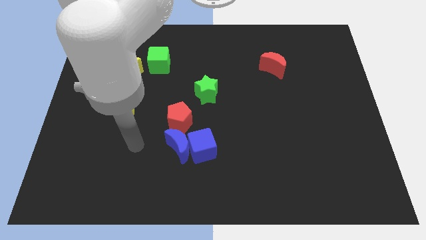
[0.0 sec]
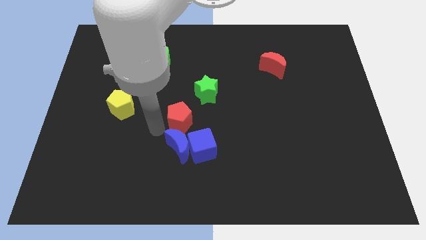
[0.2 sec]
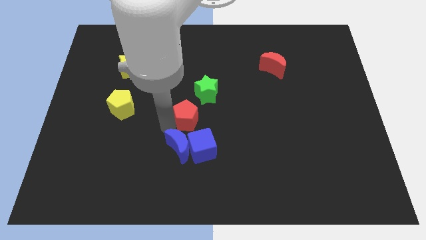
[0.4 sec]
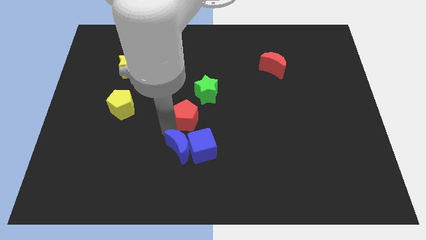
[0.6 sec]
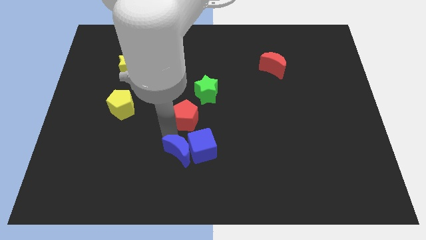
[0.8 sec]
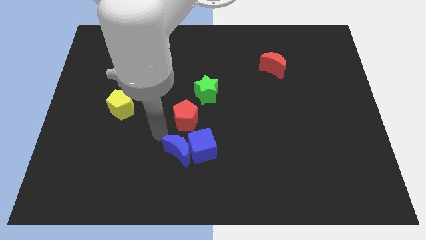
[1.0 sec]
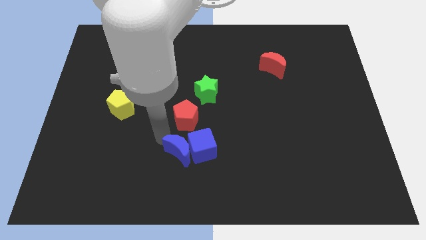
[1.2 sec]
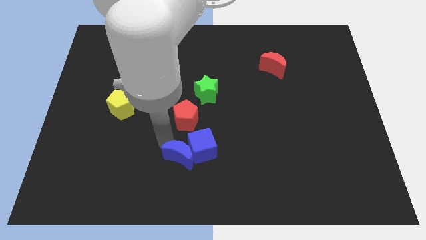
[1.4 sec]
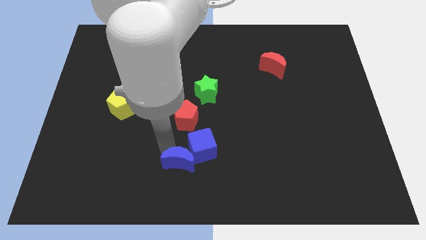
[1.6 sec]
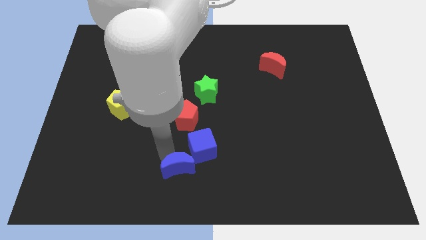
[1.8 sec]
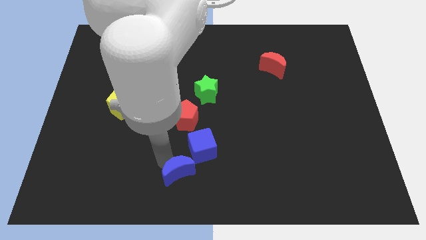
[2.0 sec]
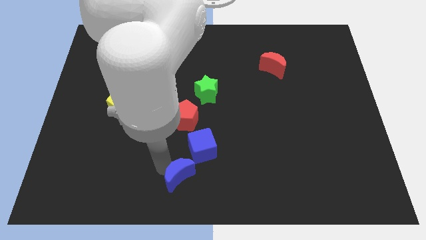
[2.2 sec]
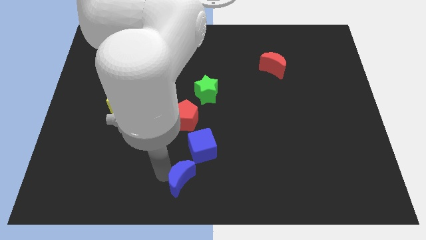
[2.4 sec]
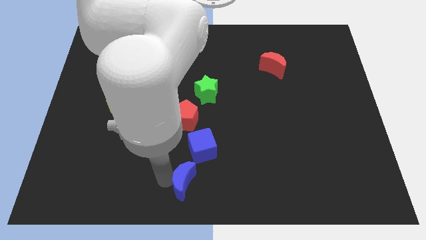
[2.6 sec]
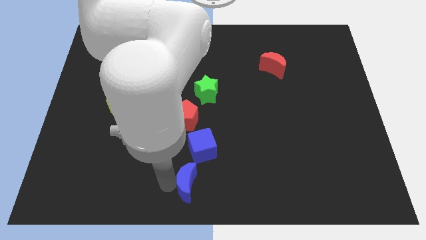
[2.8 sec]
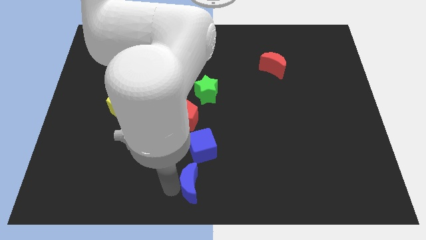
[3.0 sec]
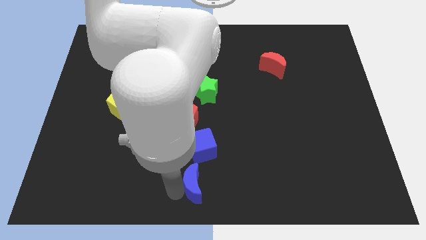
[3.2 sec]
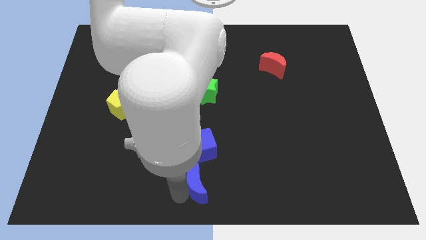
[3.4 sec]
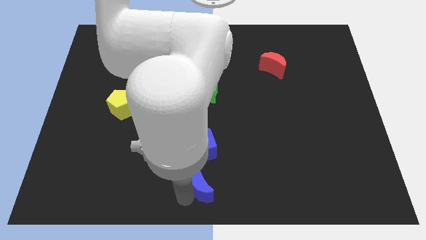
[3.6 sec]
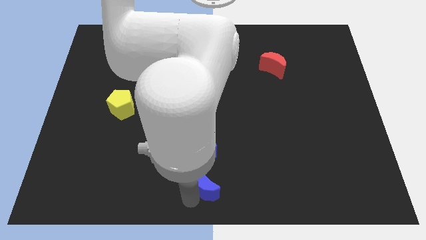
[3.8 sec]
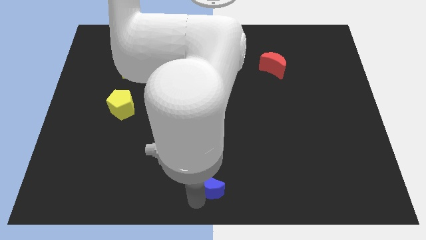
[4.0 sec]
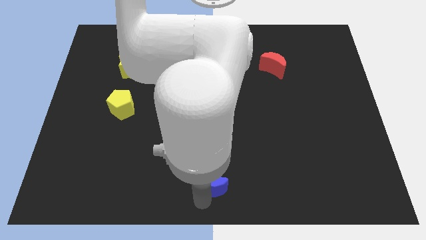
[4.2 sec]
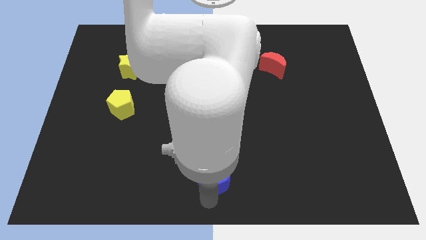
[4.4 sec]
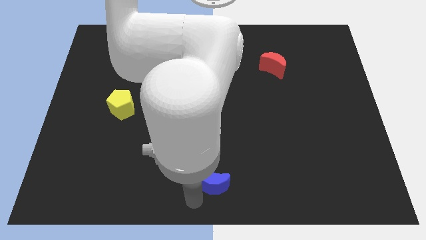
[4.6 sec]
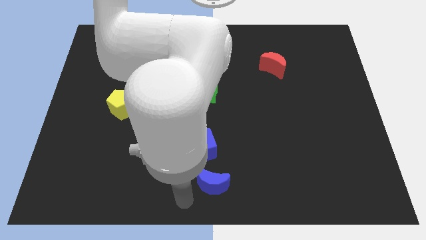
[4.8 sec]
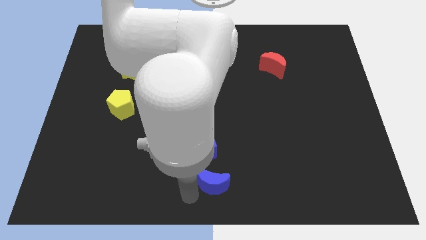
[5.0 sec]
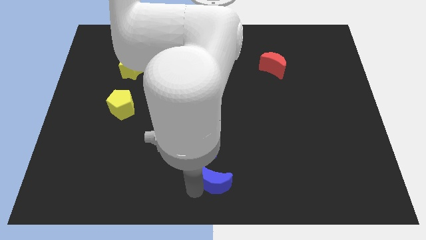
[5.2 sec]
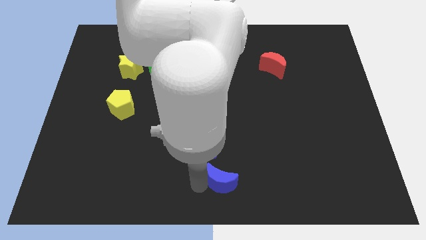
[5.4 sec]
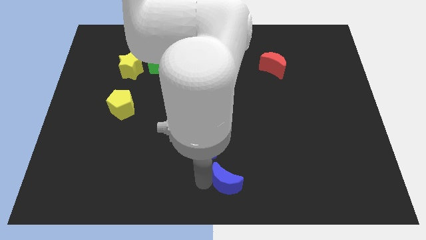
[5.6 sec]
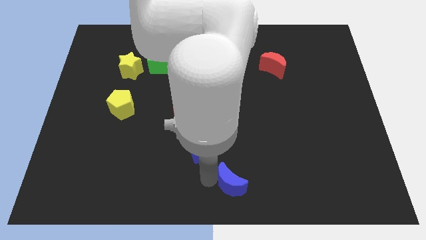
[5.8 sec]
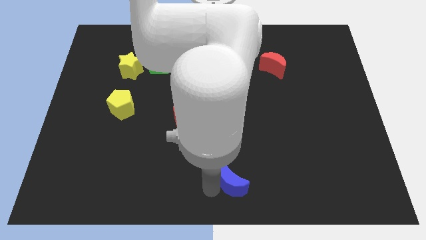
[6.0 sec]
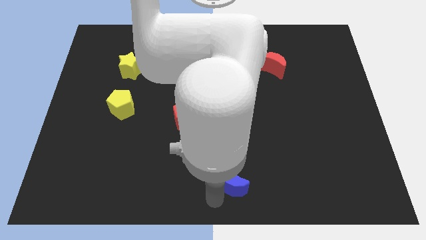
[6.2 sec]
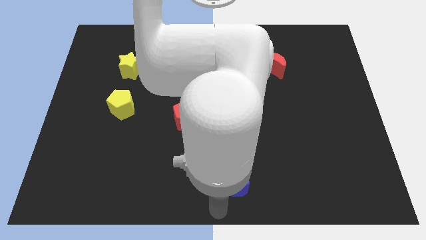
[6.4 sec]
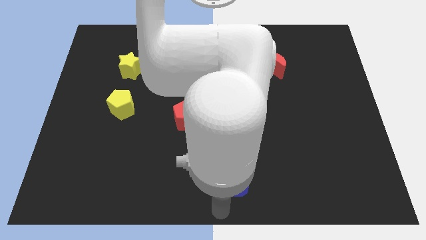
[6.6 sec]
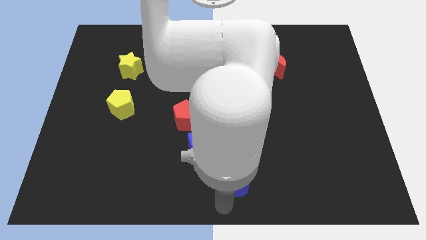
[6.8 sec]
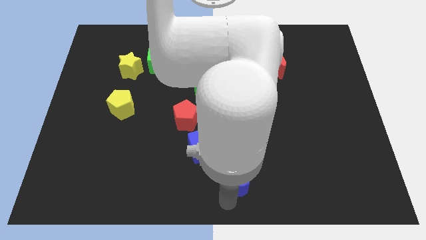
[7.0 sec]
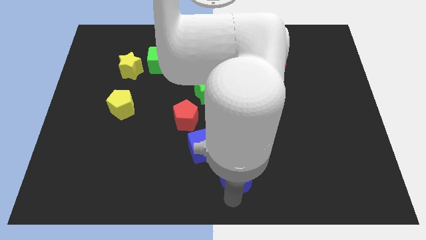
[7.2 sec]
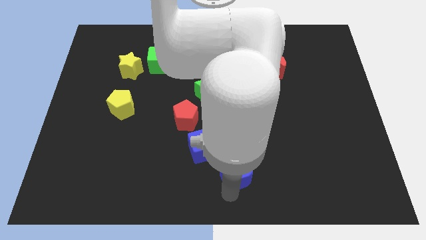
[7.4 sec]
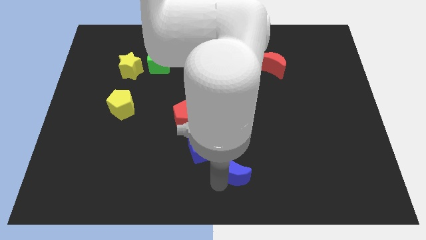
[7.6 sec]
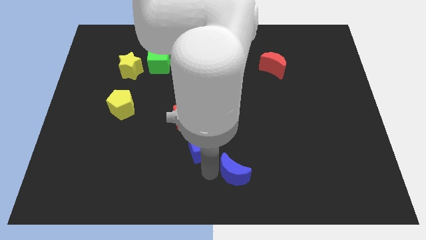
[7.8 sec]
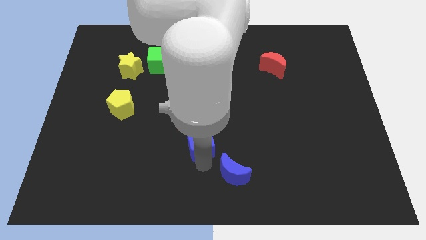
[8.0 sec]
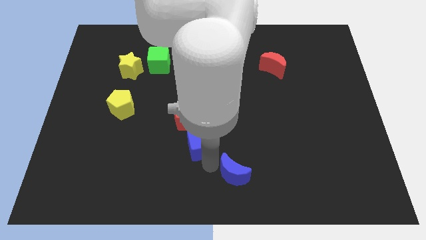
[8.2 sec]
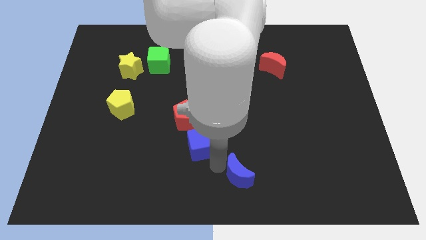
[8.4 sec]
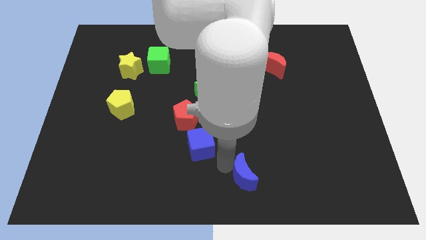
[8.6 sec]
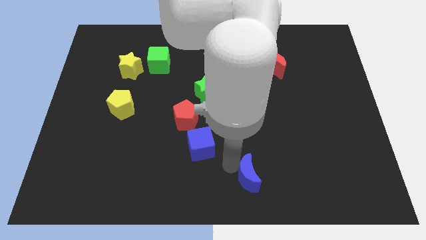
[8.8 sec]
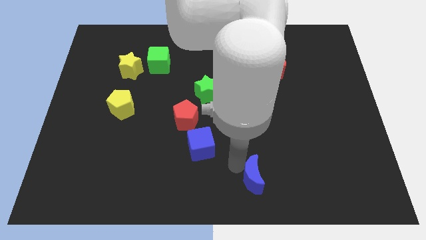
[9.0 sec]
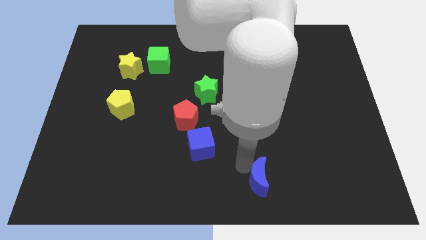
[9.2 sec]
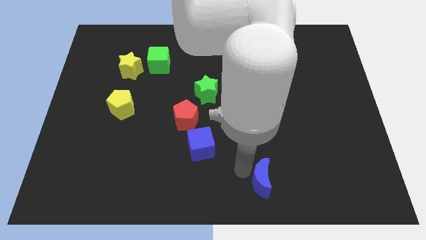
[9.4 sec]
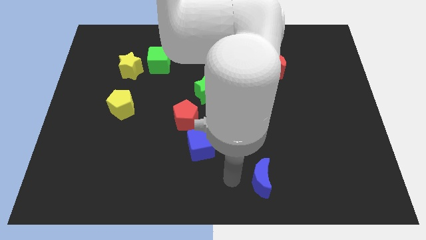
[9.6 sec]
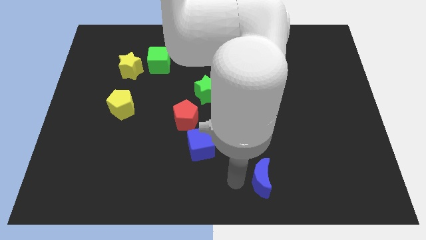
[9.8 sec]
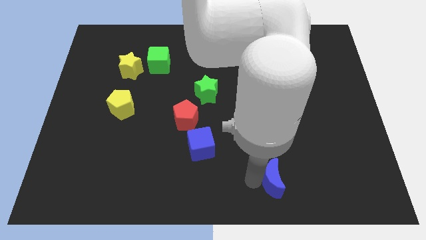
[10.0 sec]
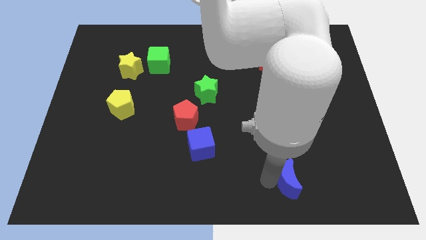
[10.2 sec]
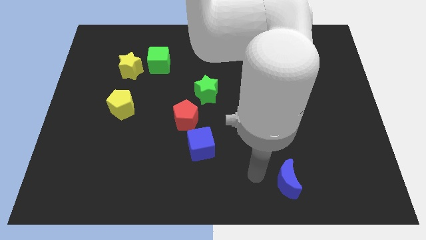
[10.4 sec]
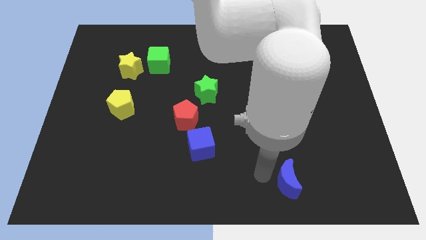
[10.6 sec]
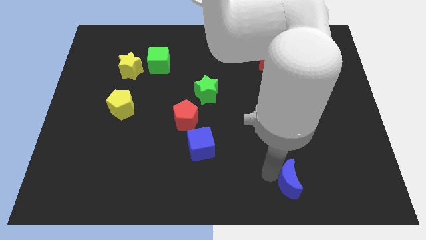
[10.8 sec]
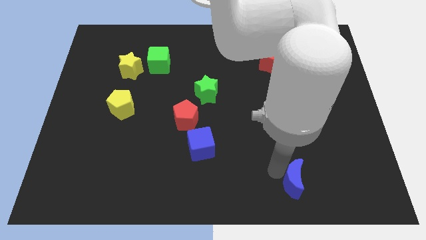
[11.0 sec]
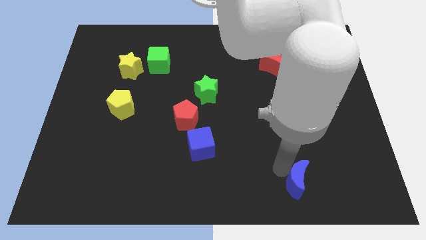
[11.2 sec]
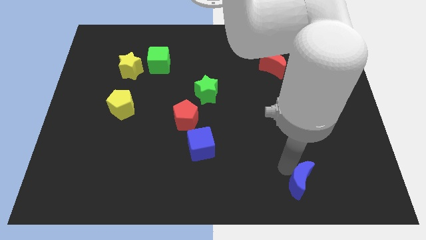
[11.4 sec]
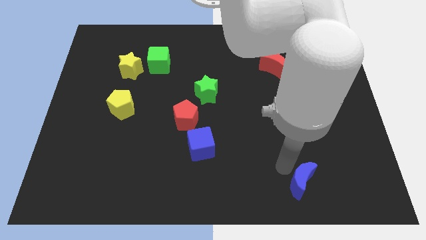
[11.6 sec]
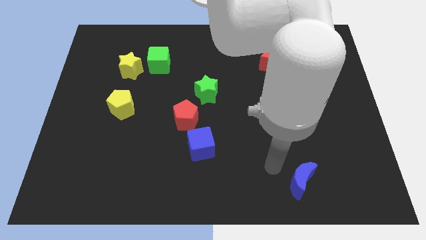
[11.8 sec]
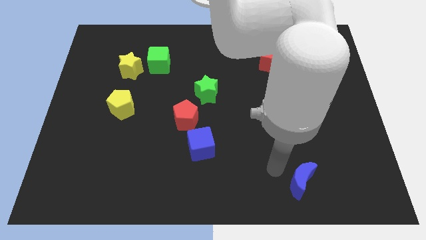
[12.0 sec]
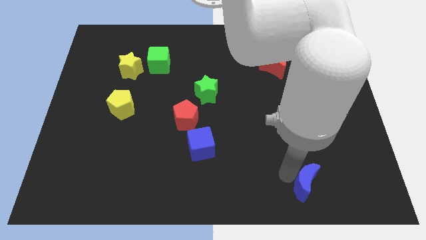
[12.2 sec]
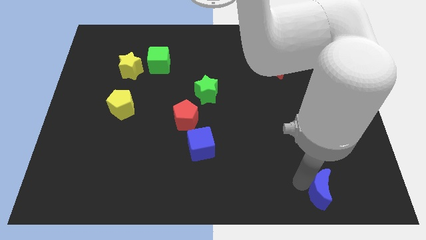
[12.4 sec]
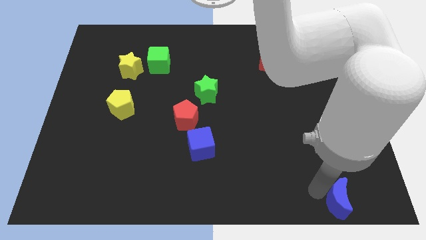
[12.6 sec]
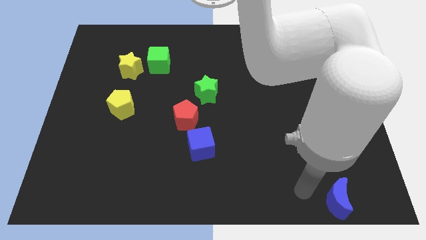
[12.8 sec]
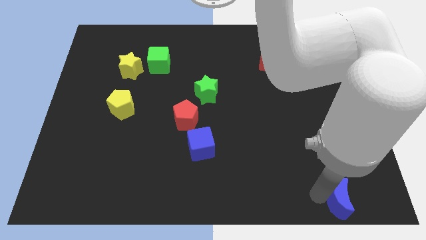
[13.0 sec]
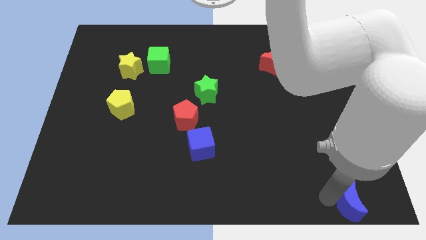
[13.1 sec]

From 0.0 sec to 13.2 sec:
put the blue moon to the bottom right of the board
